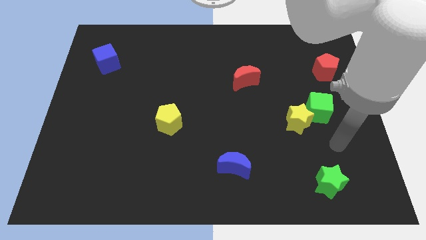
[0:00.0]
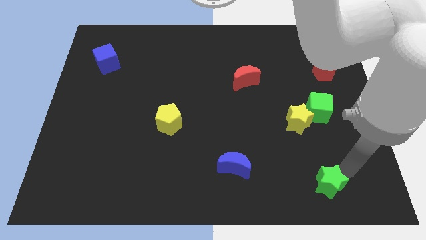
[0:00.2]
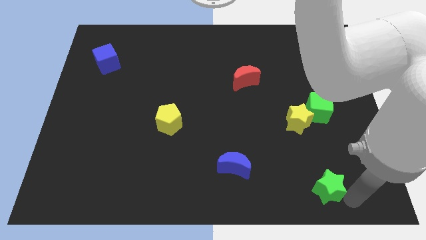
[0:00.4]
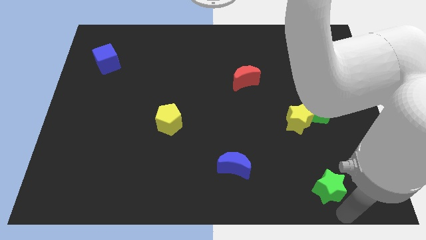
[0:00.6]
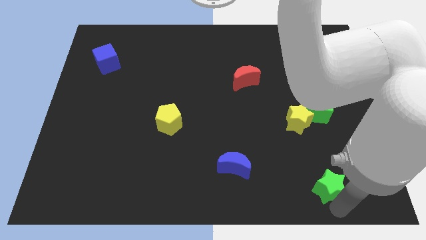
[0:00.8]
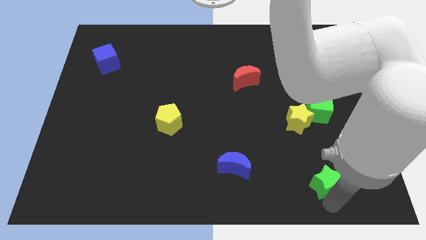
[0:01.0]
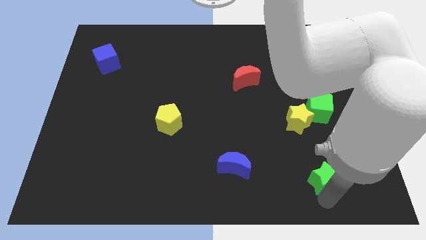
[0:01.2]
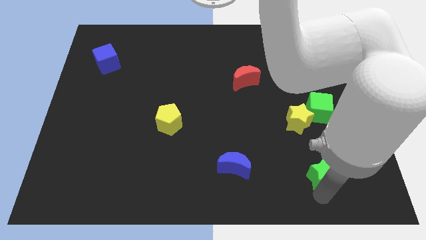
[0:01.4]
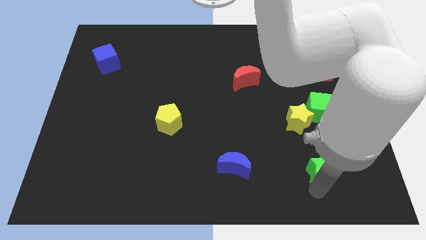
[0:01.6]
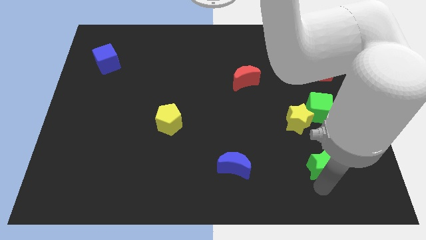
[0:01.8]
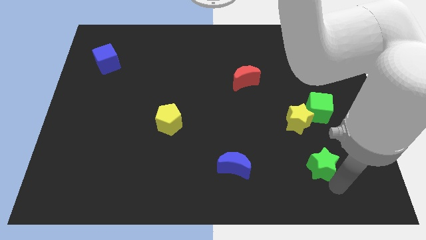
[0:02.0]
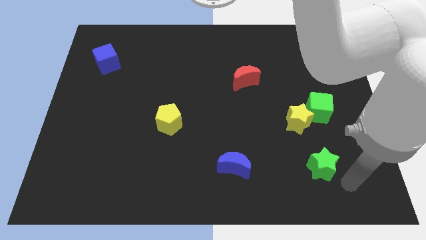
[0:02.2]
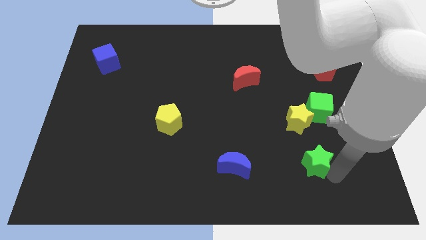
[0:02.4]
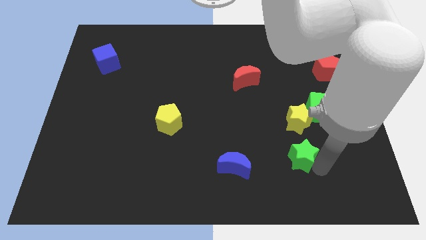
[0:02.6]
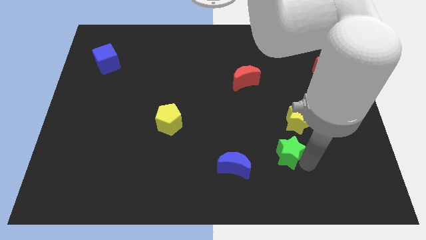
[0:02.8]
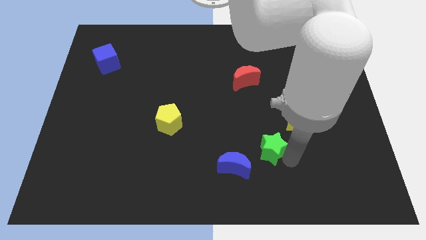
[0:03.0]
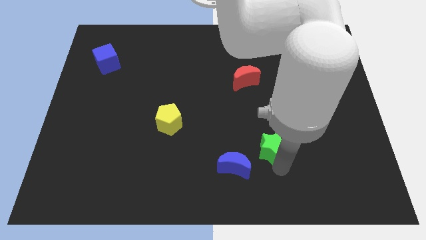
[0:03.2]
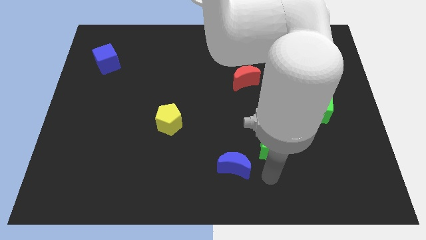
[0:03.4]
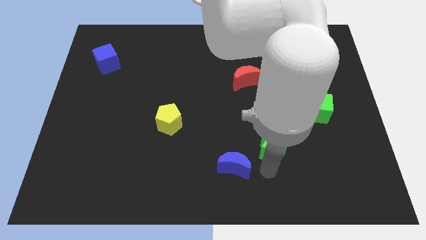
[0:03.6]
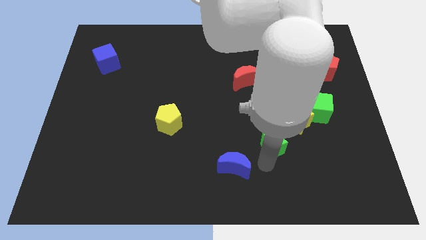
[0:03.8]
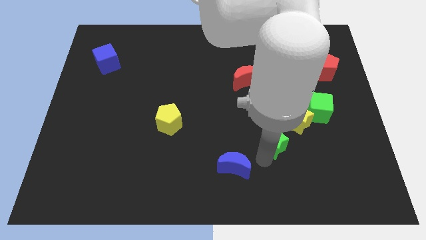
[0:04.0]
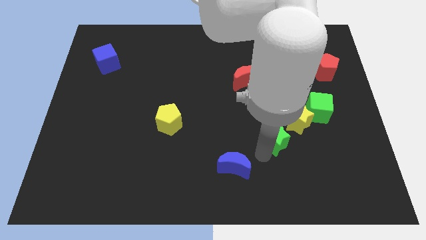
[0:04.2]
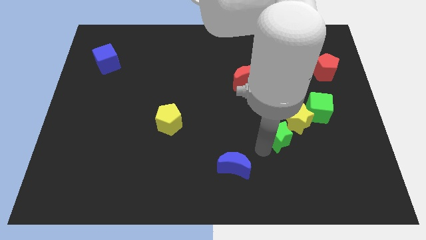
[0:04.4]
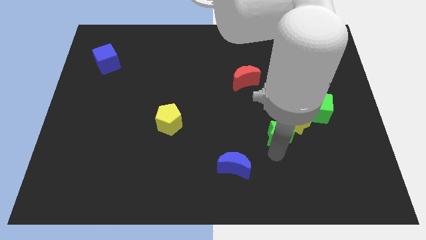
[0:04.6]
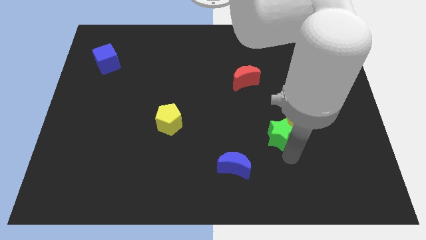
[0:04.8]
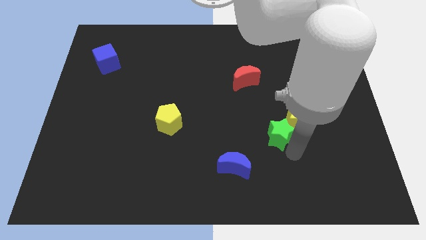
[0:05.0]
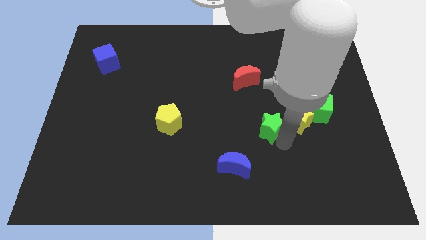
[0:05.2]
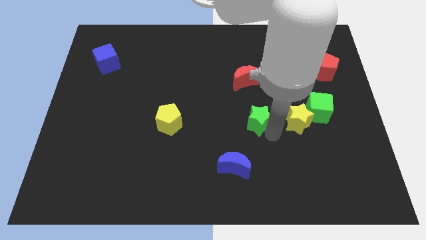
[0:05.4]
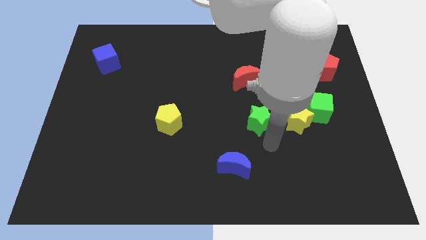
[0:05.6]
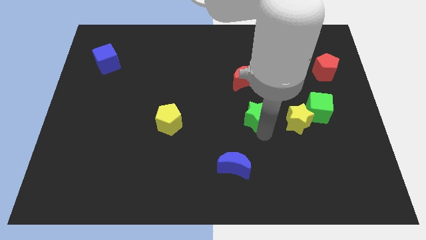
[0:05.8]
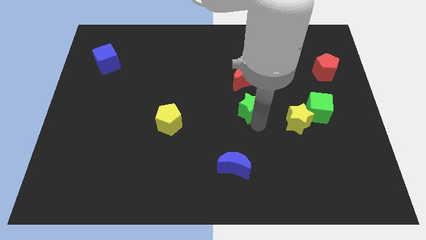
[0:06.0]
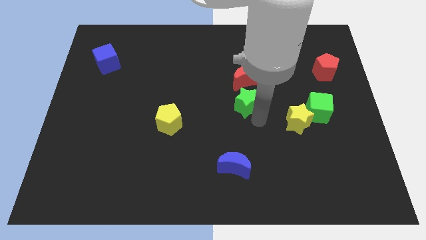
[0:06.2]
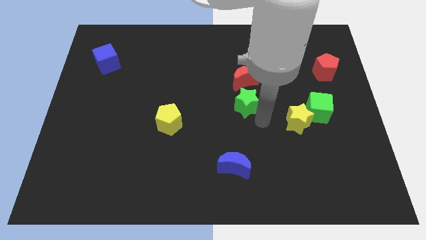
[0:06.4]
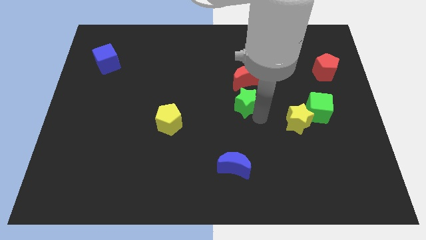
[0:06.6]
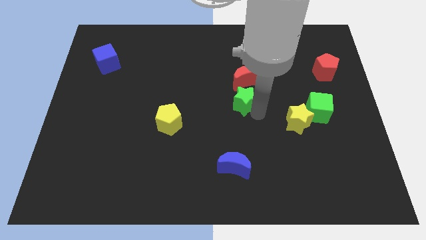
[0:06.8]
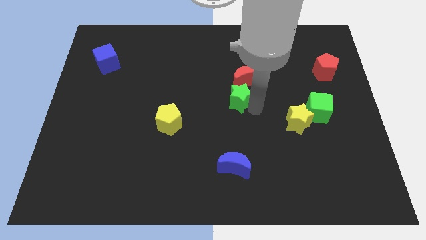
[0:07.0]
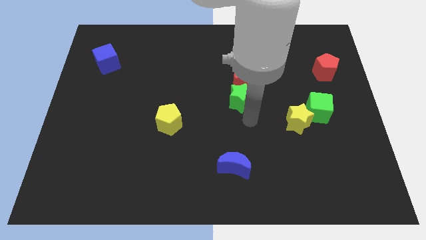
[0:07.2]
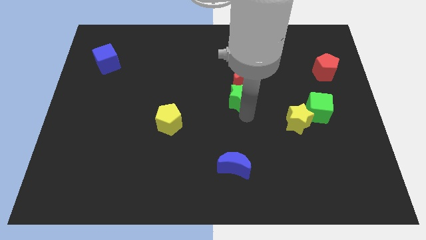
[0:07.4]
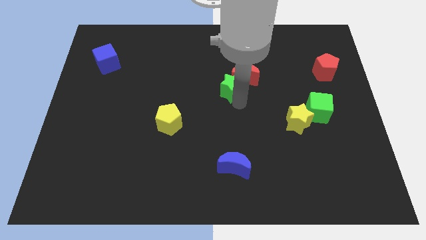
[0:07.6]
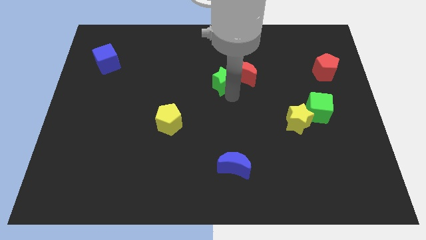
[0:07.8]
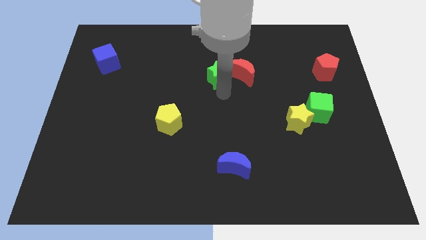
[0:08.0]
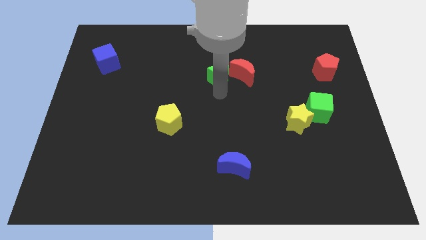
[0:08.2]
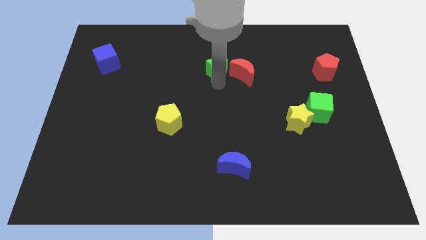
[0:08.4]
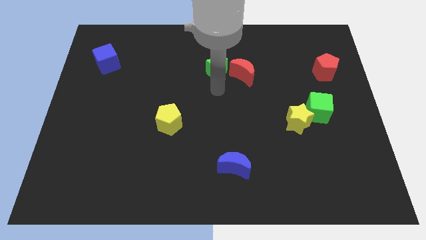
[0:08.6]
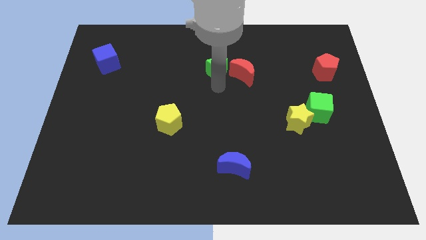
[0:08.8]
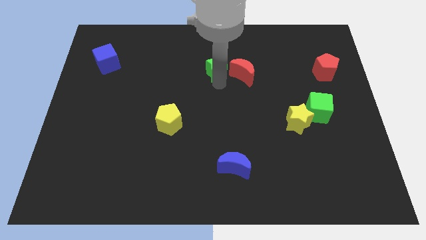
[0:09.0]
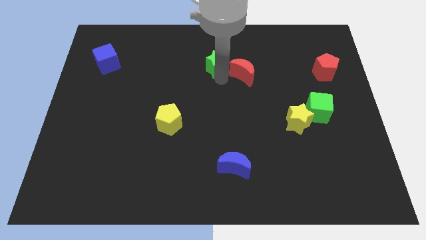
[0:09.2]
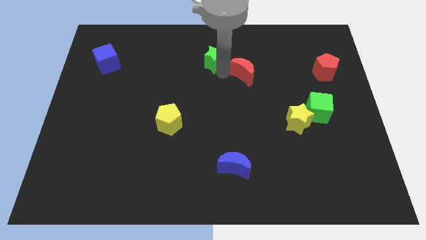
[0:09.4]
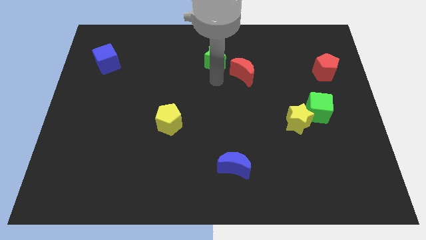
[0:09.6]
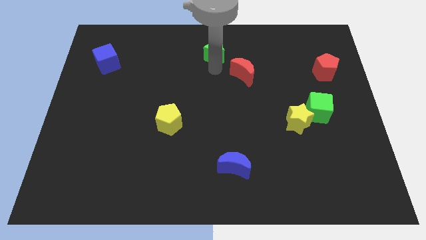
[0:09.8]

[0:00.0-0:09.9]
put the green star to the top

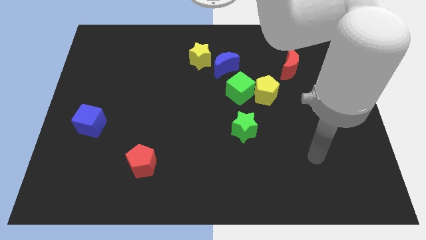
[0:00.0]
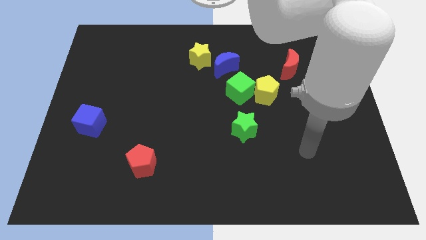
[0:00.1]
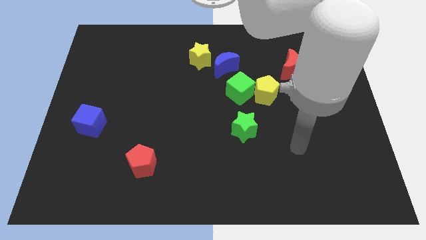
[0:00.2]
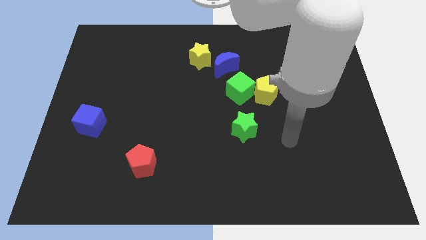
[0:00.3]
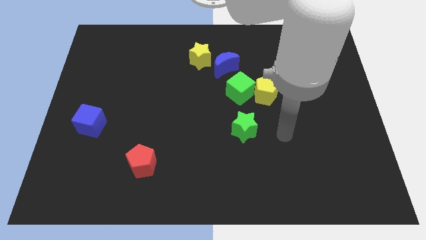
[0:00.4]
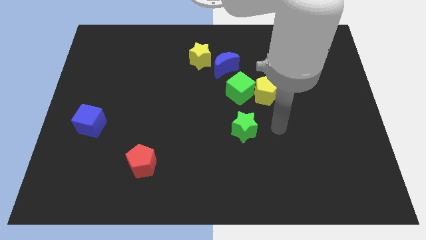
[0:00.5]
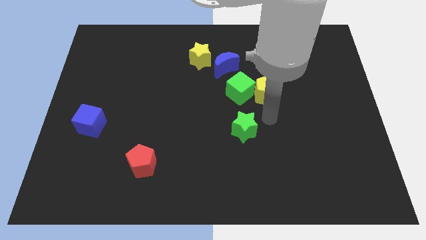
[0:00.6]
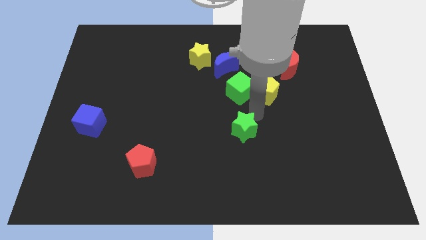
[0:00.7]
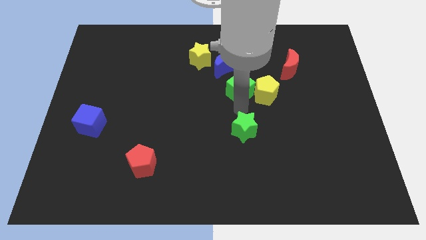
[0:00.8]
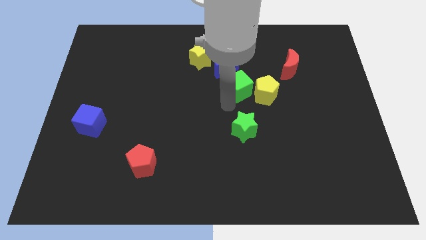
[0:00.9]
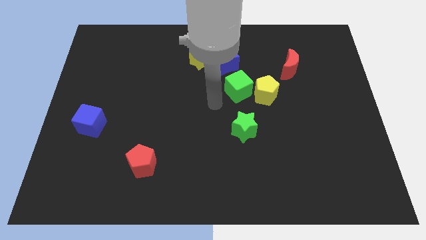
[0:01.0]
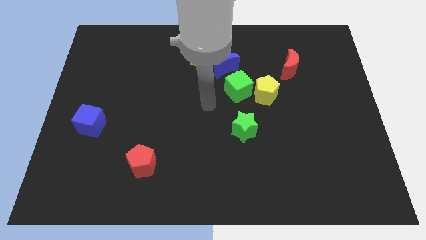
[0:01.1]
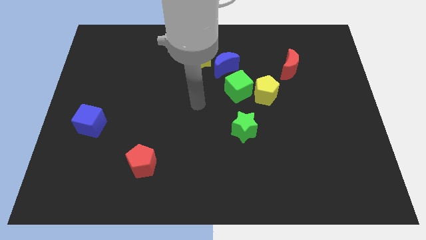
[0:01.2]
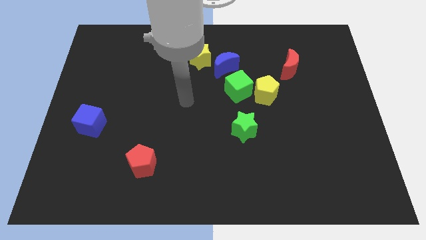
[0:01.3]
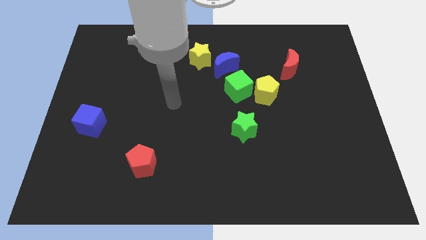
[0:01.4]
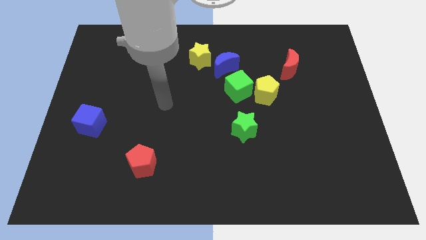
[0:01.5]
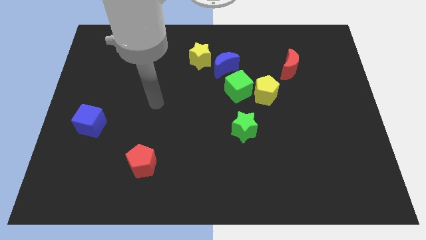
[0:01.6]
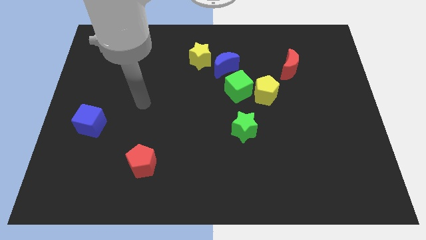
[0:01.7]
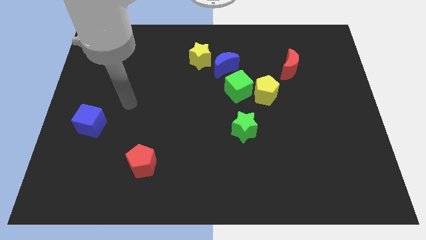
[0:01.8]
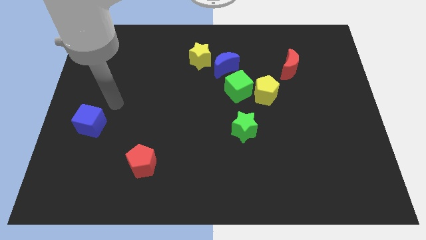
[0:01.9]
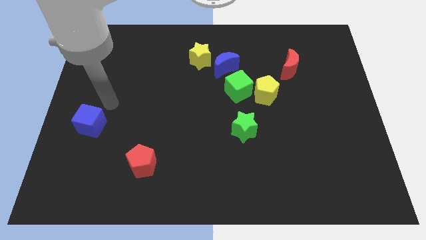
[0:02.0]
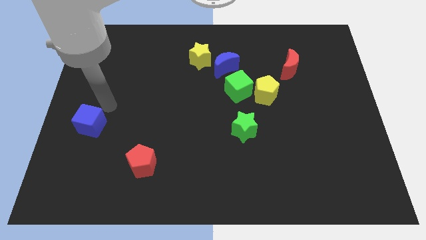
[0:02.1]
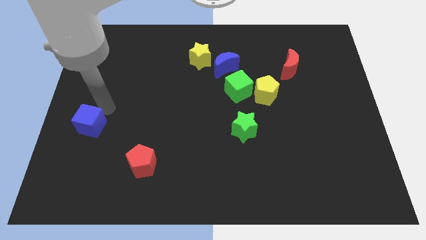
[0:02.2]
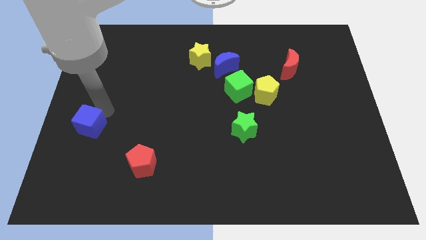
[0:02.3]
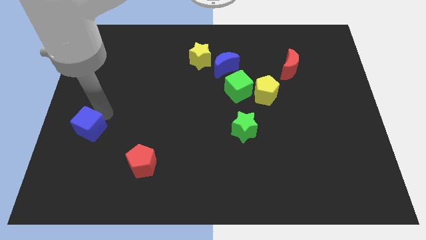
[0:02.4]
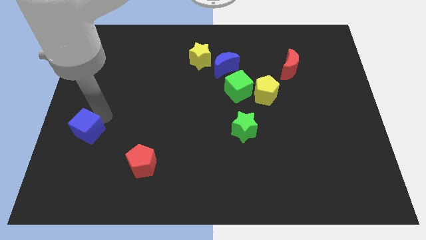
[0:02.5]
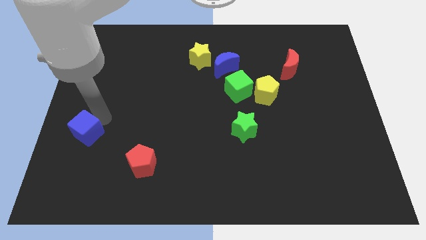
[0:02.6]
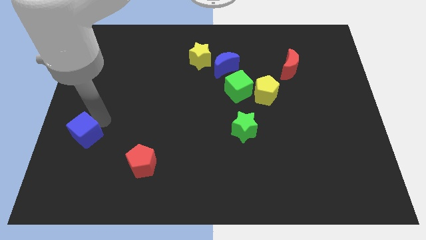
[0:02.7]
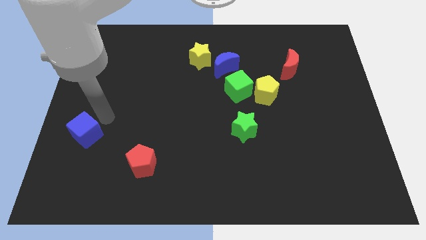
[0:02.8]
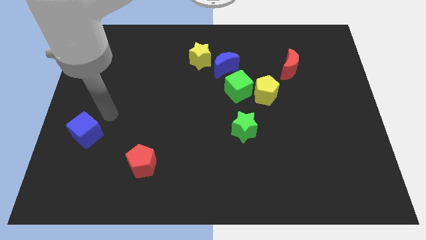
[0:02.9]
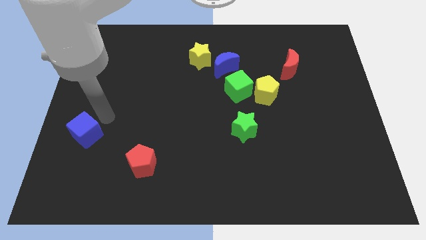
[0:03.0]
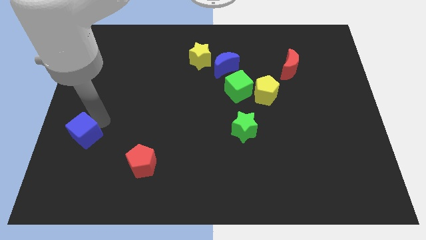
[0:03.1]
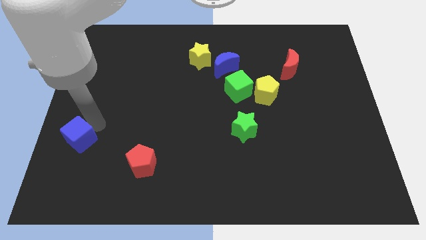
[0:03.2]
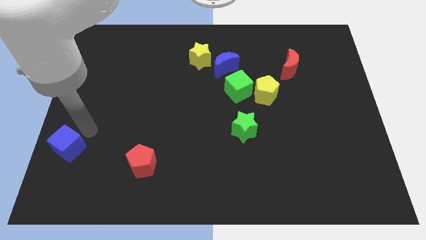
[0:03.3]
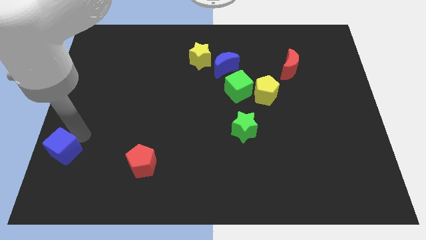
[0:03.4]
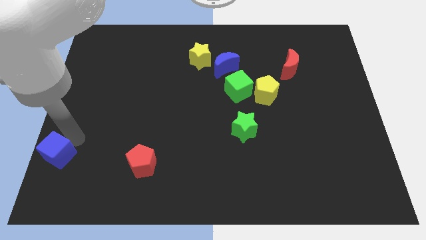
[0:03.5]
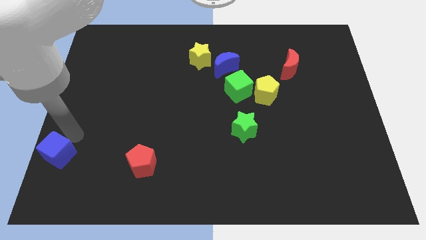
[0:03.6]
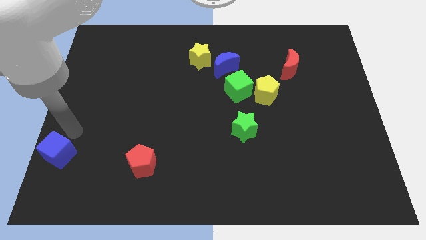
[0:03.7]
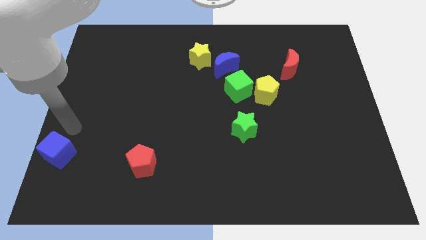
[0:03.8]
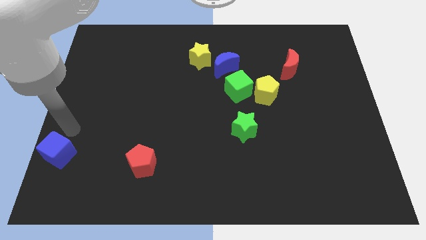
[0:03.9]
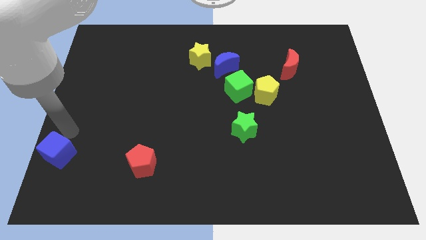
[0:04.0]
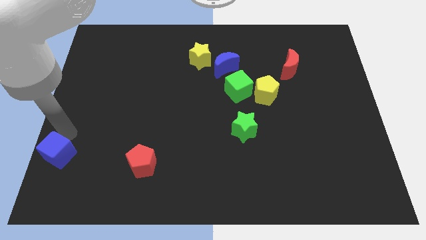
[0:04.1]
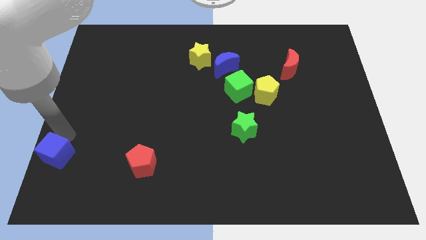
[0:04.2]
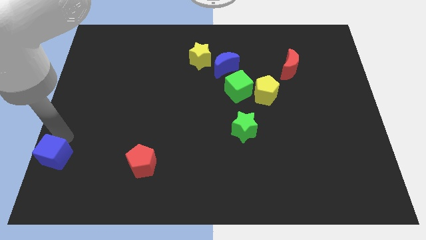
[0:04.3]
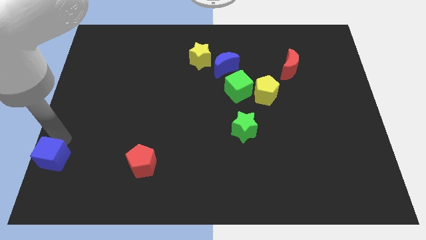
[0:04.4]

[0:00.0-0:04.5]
push the blue cube to the lower left corner
